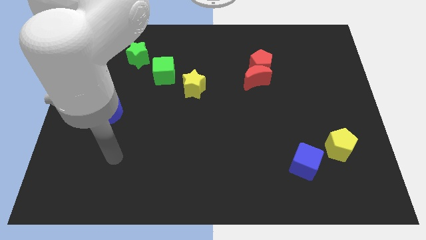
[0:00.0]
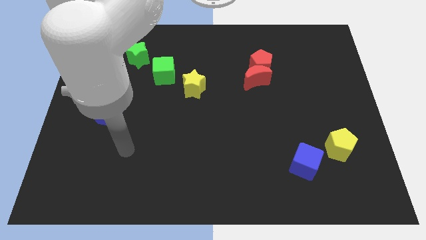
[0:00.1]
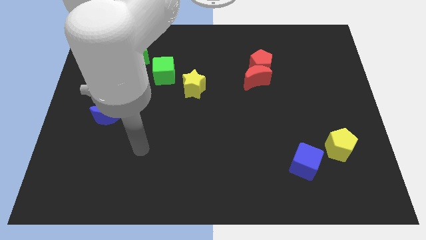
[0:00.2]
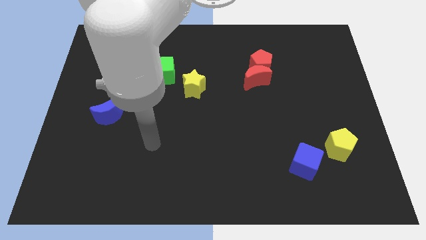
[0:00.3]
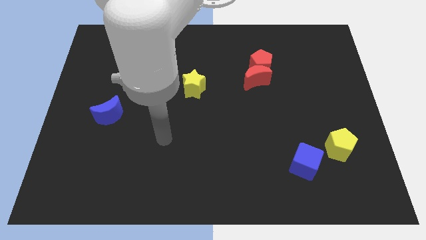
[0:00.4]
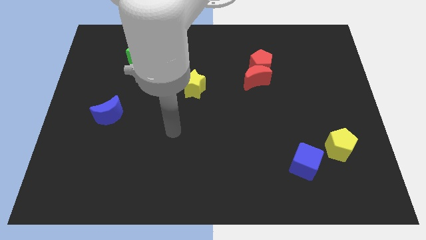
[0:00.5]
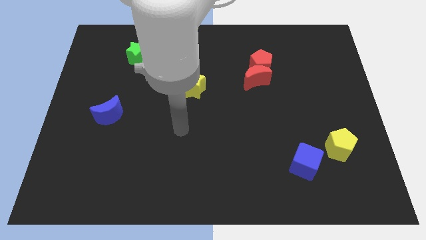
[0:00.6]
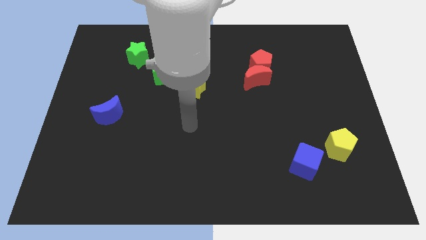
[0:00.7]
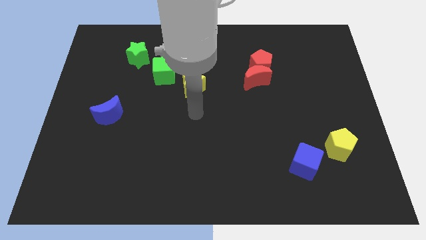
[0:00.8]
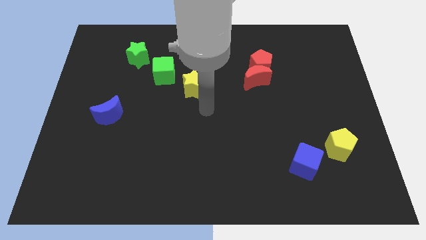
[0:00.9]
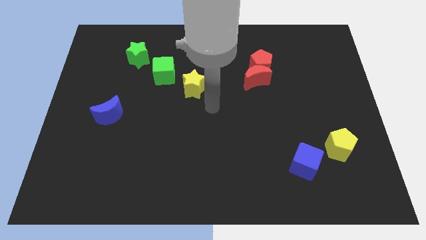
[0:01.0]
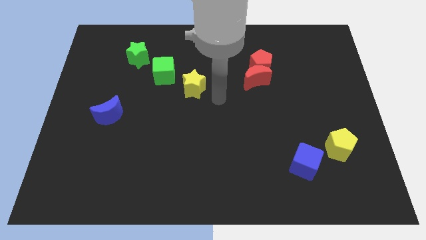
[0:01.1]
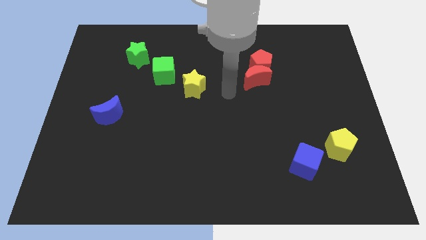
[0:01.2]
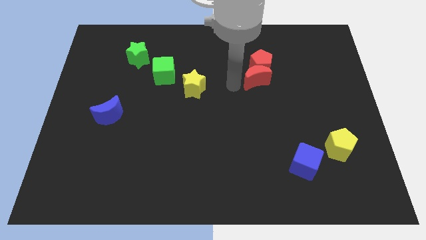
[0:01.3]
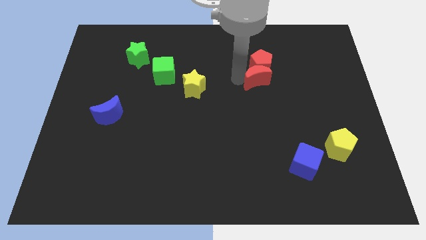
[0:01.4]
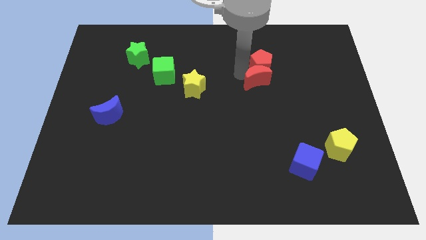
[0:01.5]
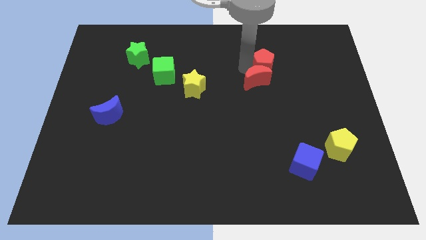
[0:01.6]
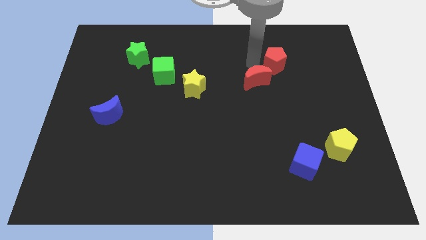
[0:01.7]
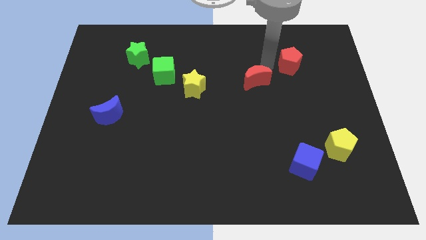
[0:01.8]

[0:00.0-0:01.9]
pull the red moon apart from the red pentagon

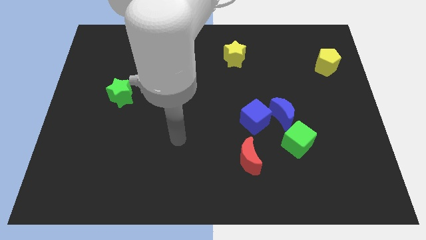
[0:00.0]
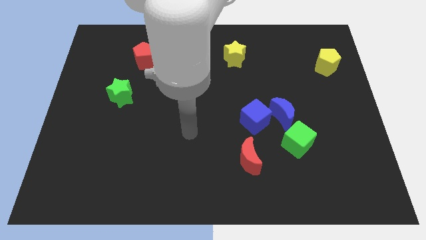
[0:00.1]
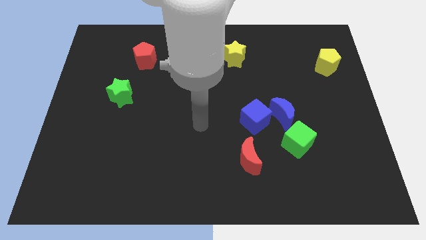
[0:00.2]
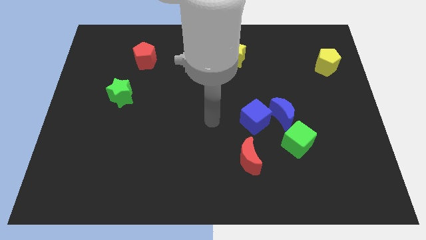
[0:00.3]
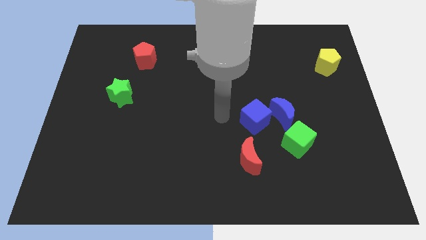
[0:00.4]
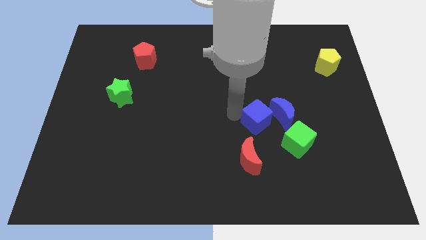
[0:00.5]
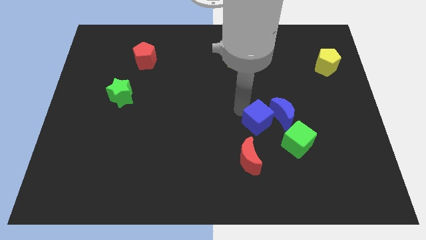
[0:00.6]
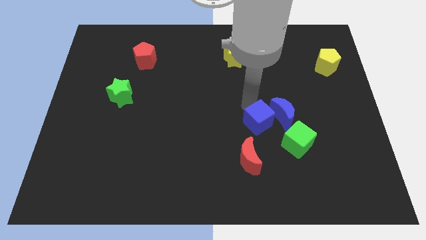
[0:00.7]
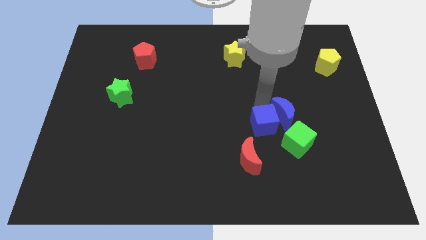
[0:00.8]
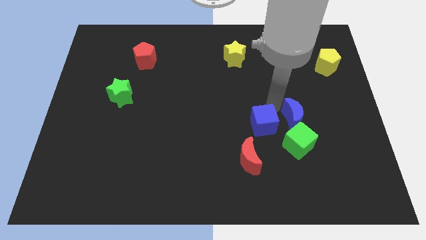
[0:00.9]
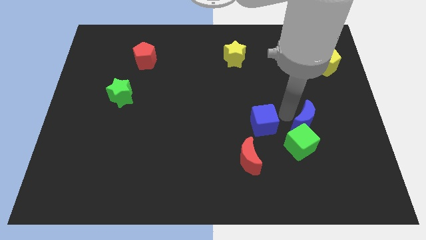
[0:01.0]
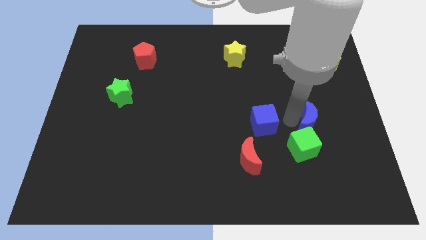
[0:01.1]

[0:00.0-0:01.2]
move the blue cube away from the blue moon

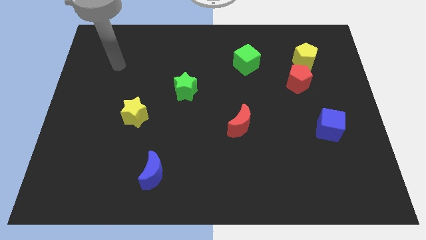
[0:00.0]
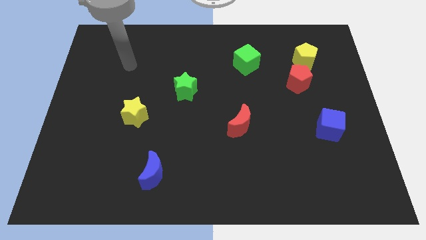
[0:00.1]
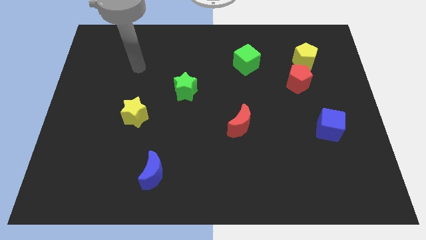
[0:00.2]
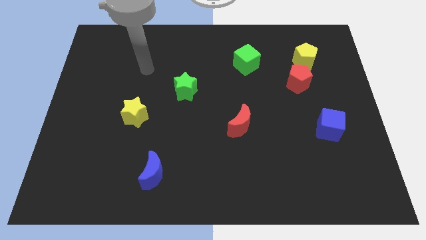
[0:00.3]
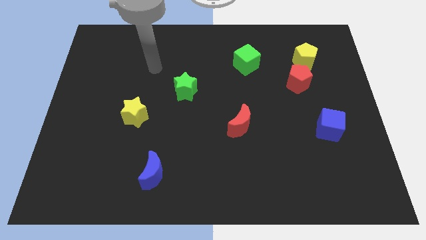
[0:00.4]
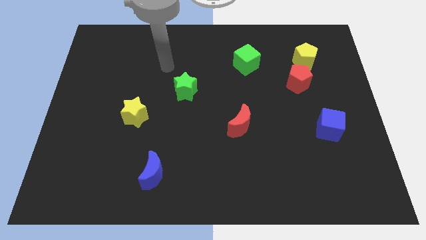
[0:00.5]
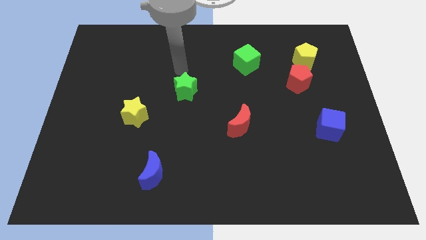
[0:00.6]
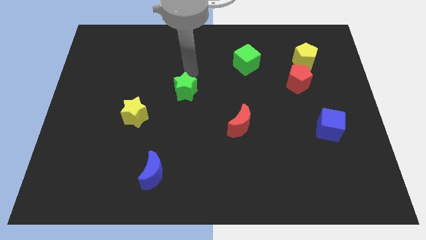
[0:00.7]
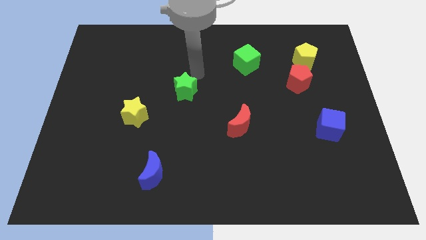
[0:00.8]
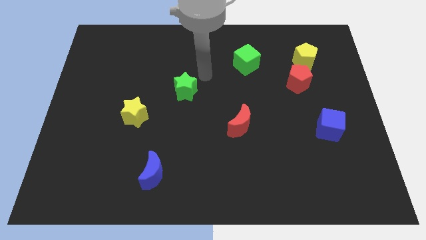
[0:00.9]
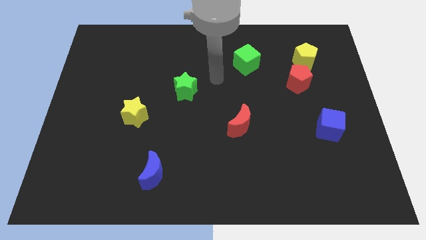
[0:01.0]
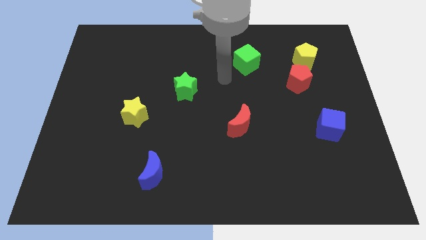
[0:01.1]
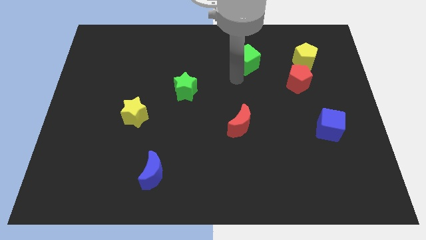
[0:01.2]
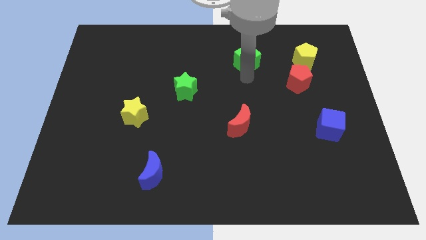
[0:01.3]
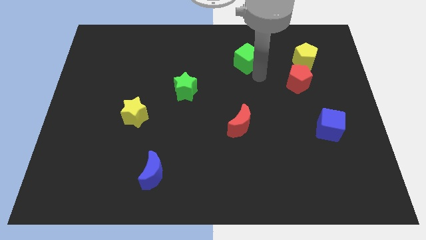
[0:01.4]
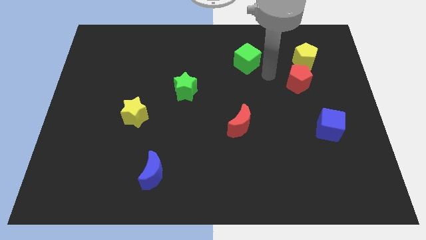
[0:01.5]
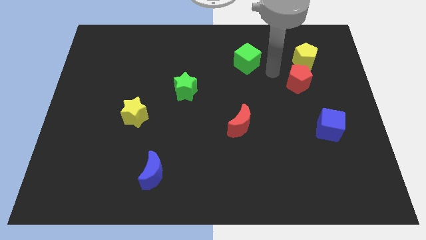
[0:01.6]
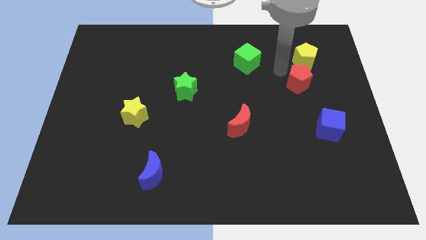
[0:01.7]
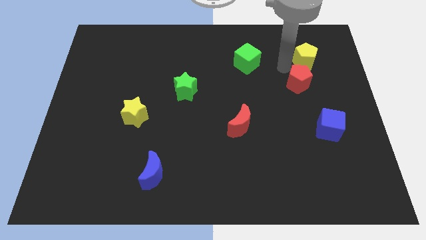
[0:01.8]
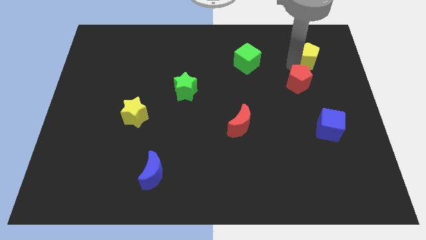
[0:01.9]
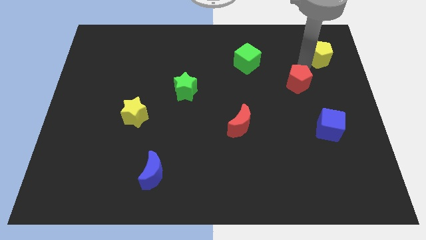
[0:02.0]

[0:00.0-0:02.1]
move the red pentagon away from the yellow pentagon

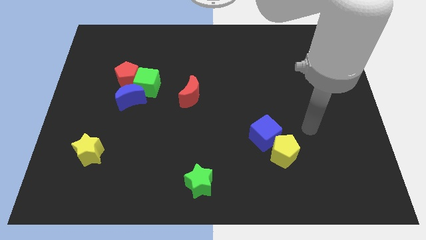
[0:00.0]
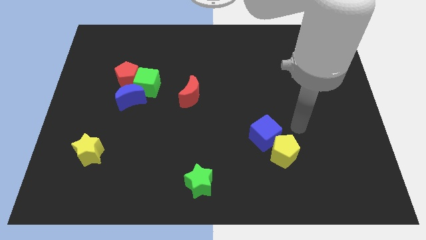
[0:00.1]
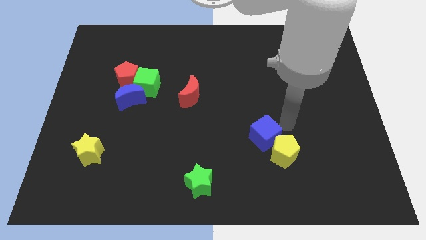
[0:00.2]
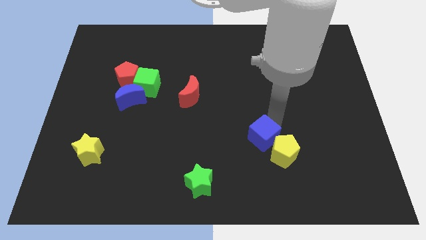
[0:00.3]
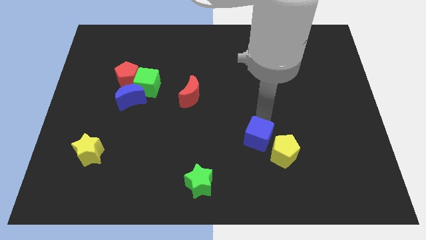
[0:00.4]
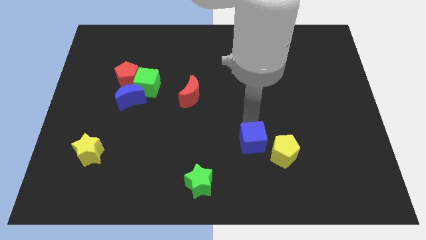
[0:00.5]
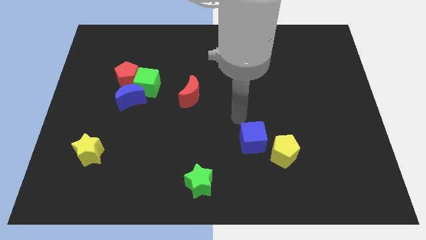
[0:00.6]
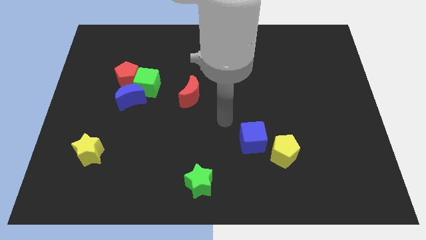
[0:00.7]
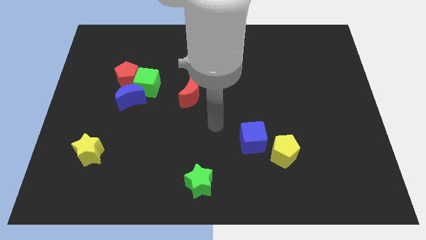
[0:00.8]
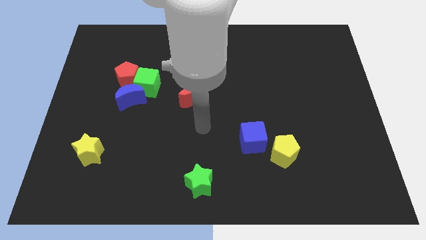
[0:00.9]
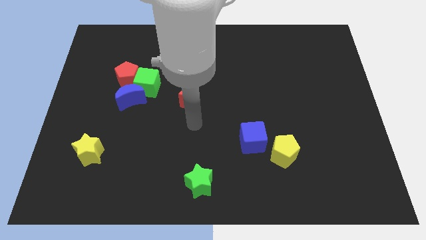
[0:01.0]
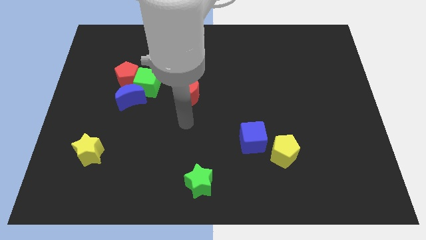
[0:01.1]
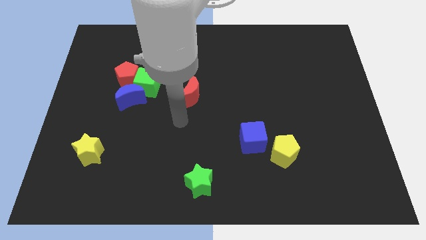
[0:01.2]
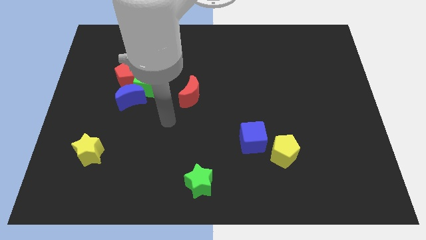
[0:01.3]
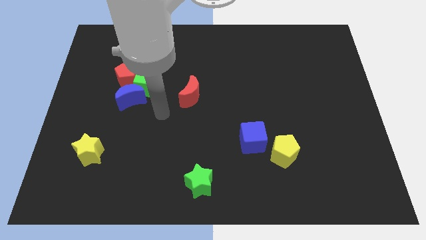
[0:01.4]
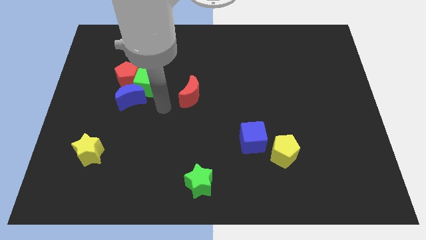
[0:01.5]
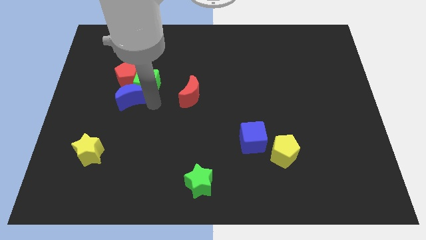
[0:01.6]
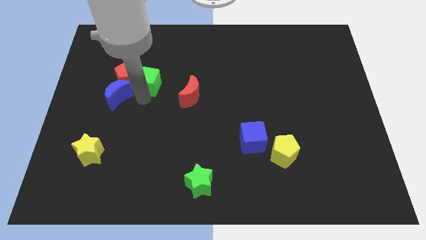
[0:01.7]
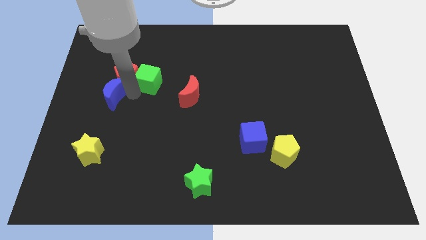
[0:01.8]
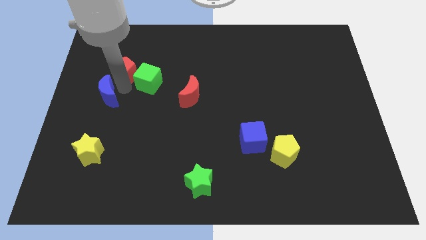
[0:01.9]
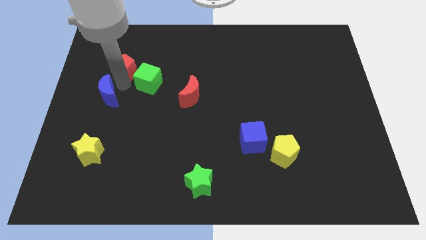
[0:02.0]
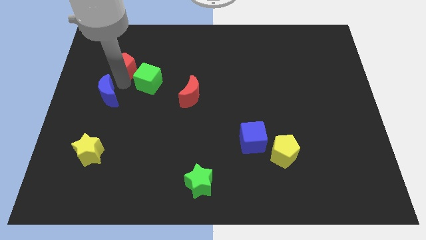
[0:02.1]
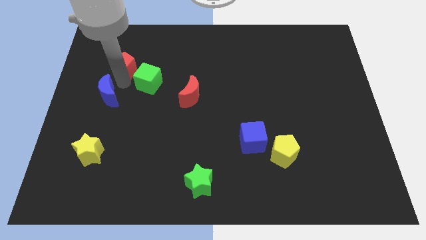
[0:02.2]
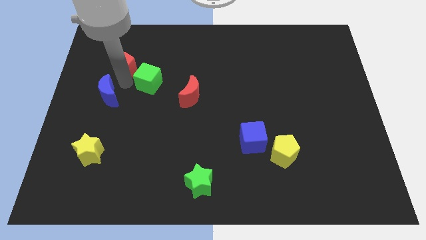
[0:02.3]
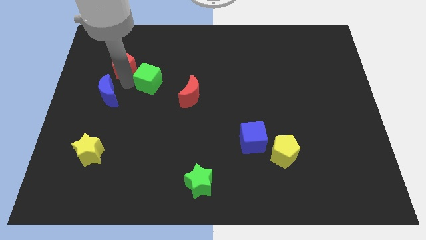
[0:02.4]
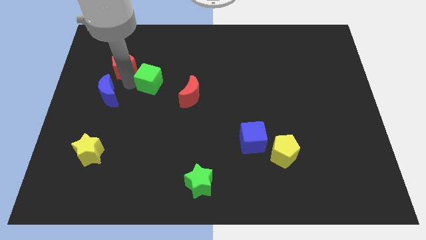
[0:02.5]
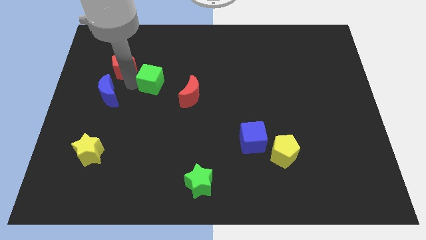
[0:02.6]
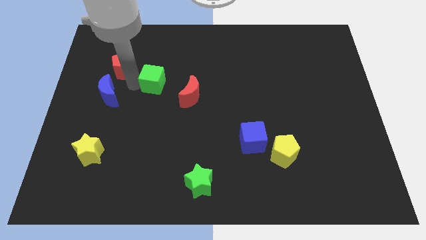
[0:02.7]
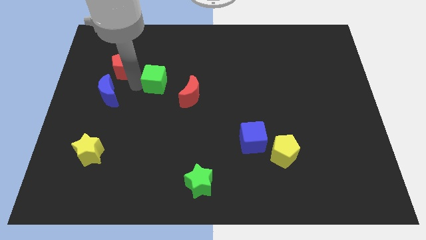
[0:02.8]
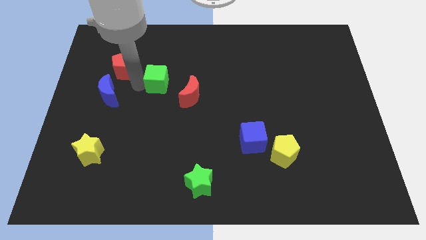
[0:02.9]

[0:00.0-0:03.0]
move the green cube away from the red pentagon and blue moon

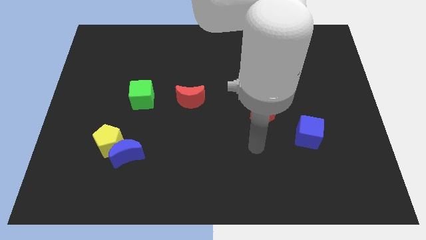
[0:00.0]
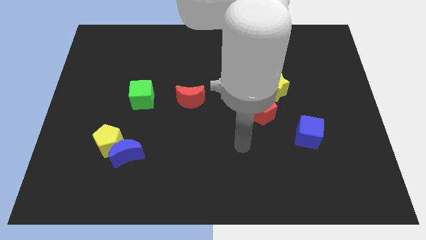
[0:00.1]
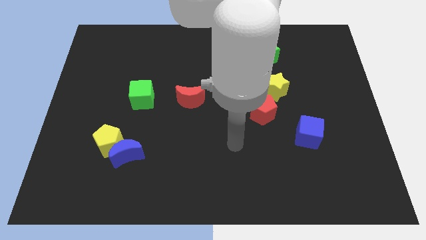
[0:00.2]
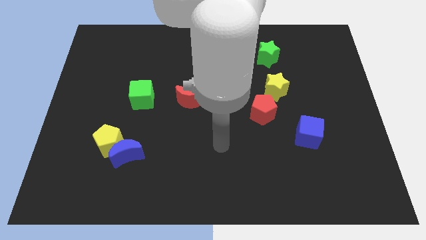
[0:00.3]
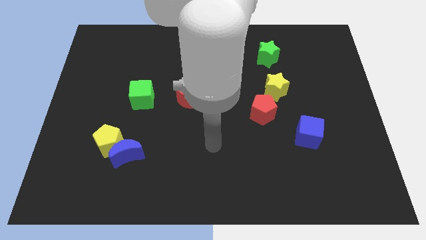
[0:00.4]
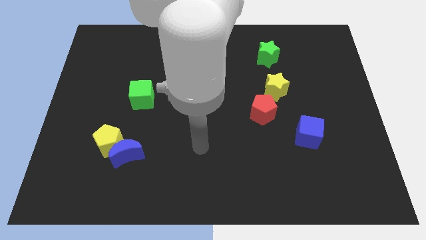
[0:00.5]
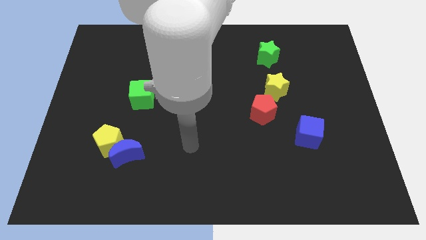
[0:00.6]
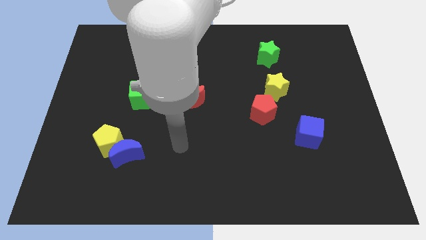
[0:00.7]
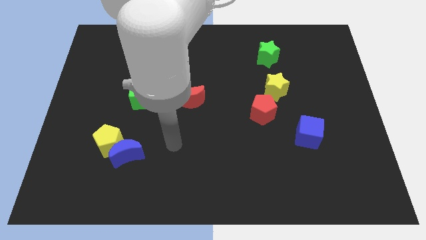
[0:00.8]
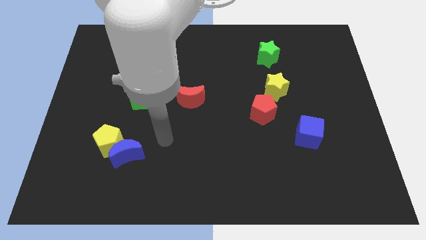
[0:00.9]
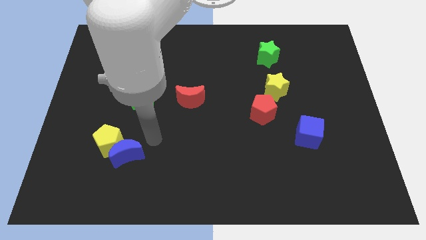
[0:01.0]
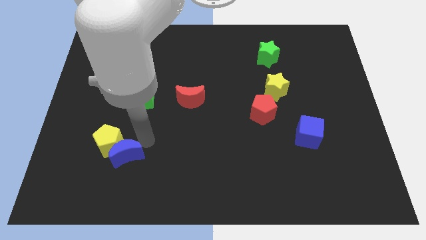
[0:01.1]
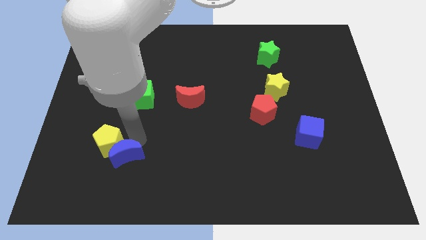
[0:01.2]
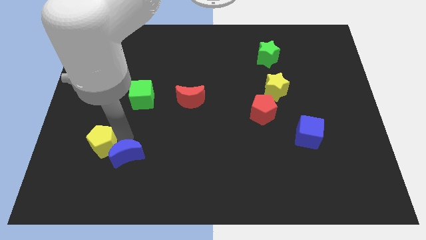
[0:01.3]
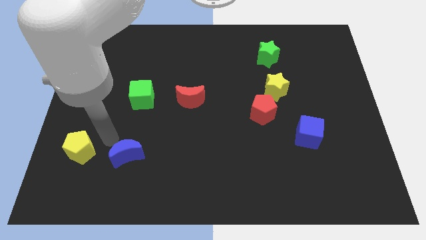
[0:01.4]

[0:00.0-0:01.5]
pull the blue moon apart from the yellow pentagon
